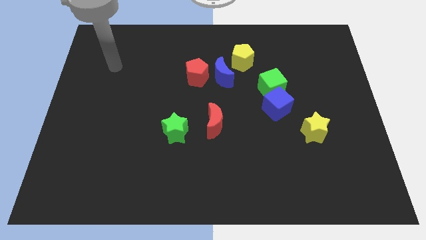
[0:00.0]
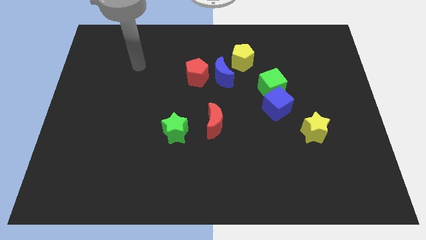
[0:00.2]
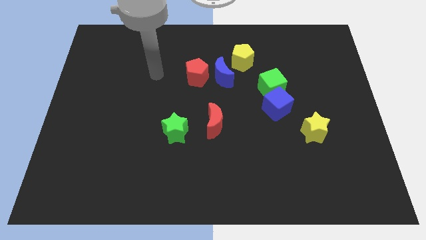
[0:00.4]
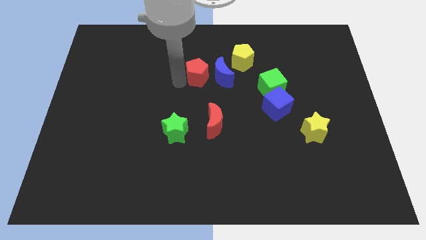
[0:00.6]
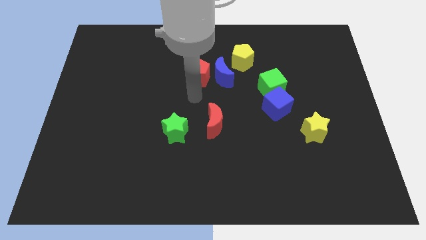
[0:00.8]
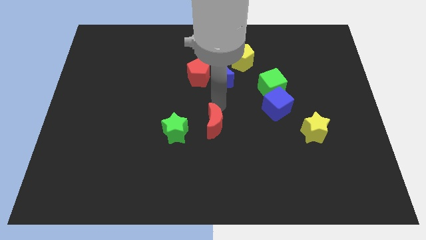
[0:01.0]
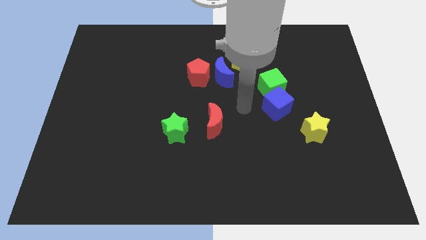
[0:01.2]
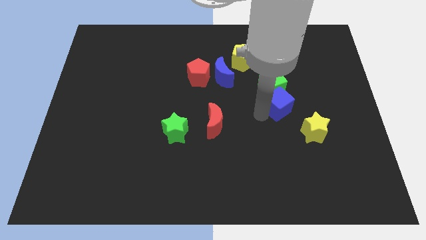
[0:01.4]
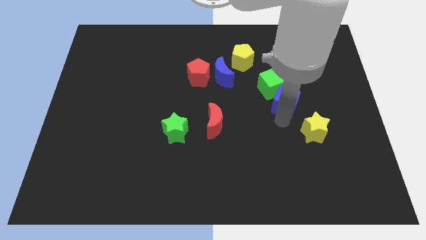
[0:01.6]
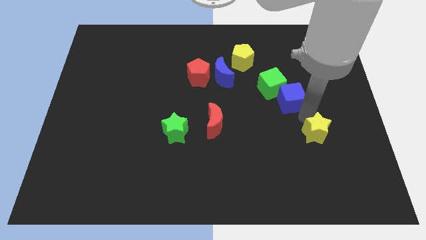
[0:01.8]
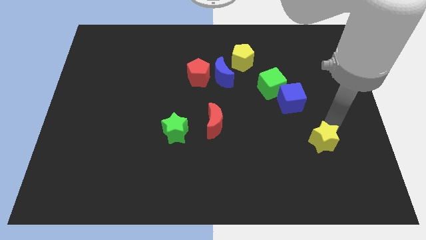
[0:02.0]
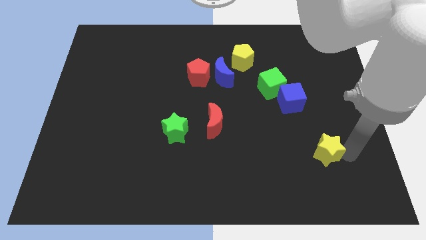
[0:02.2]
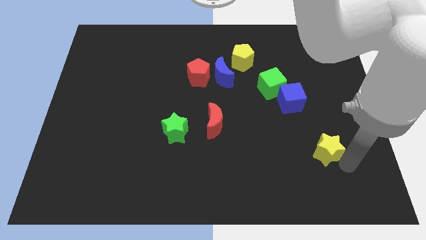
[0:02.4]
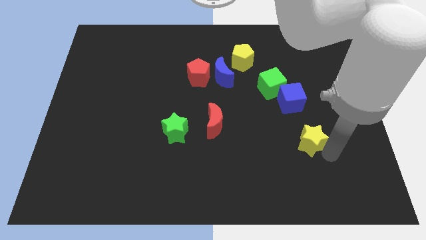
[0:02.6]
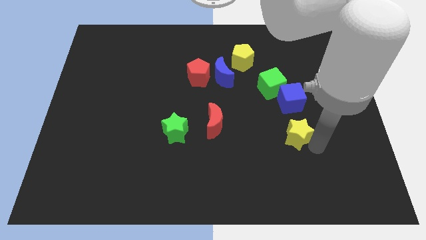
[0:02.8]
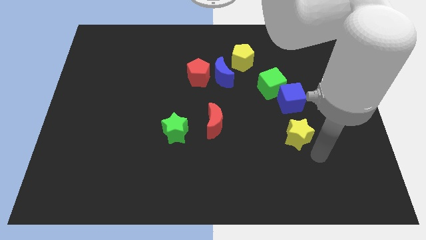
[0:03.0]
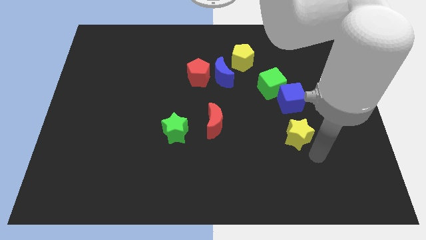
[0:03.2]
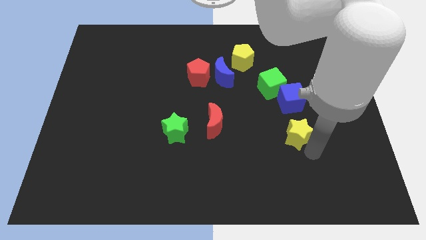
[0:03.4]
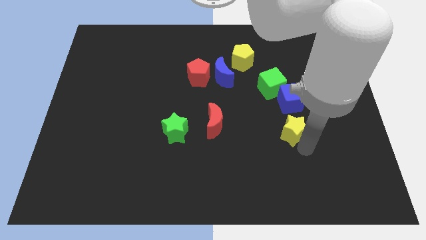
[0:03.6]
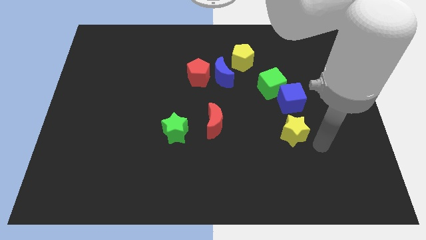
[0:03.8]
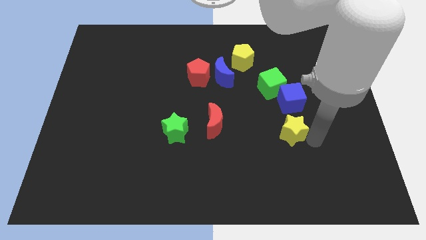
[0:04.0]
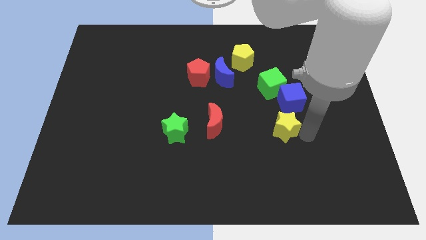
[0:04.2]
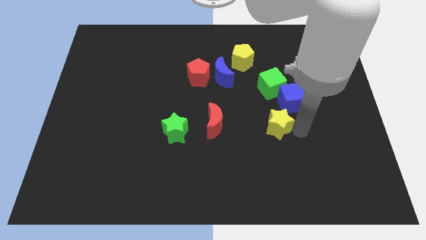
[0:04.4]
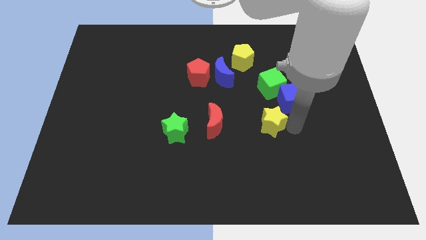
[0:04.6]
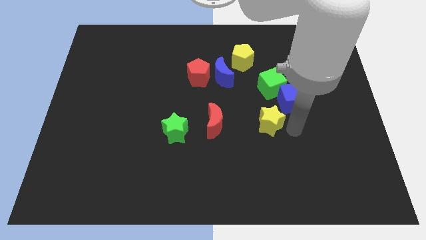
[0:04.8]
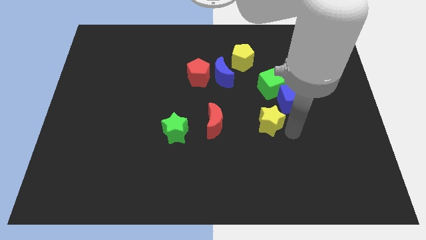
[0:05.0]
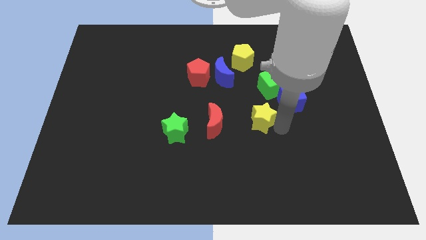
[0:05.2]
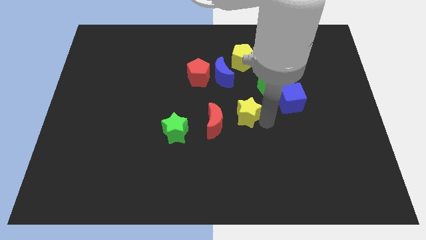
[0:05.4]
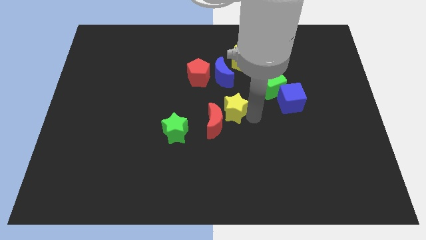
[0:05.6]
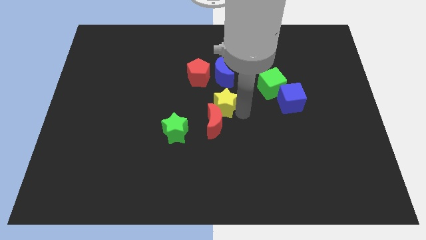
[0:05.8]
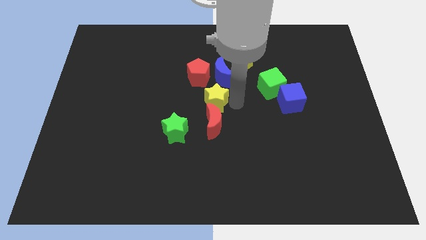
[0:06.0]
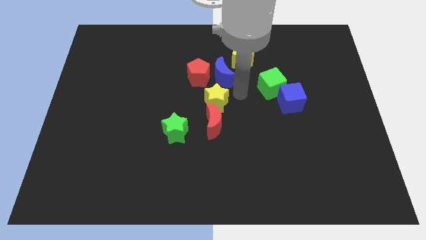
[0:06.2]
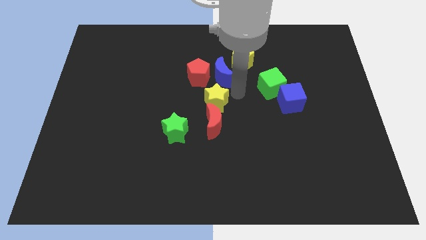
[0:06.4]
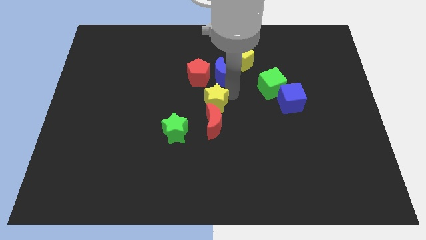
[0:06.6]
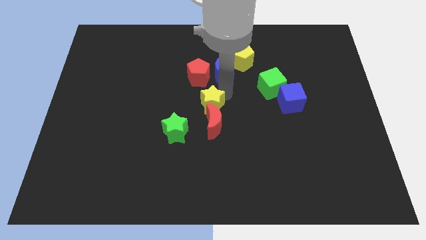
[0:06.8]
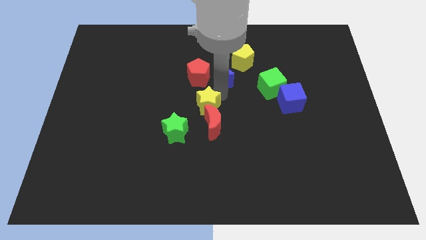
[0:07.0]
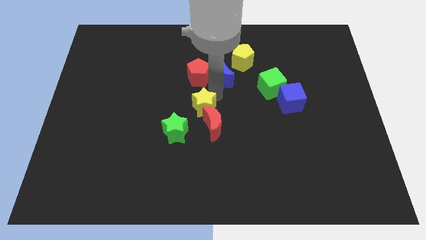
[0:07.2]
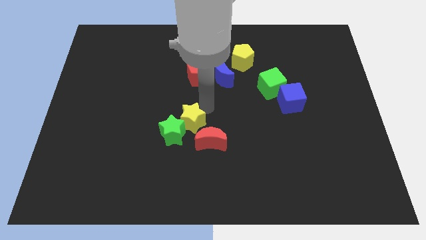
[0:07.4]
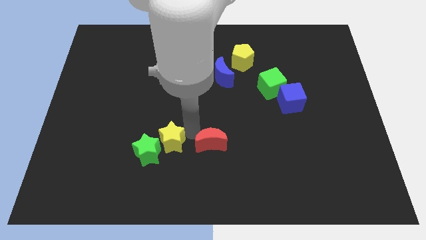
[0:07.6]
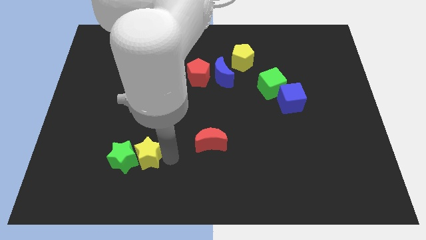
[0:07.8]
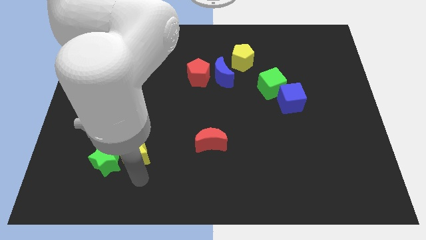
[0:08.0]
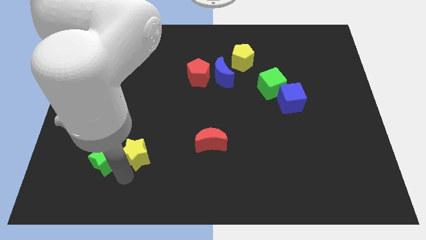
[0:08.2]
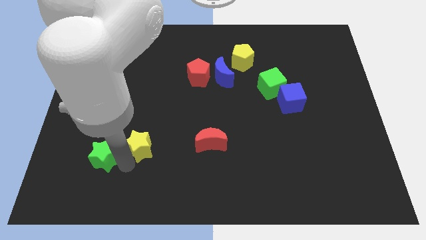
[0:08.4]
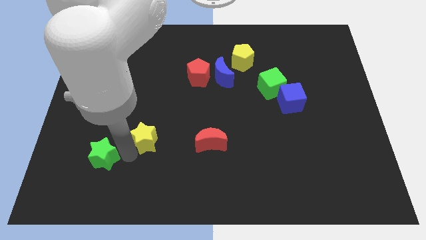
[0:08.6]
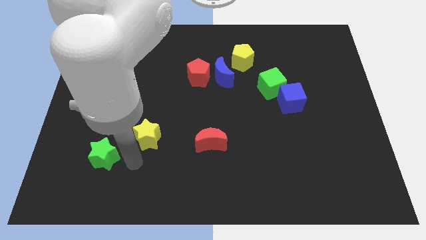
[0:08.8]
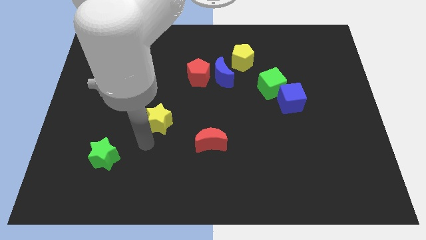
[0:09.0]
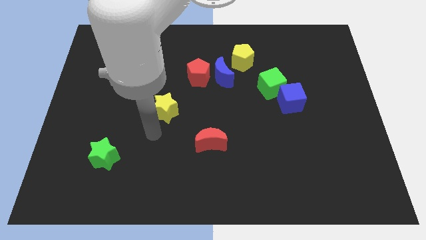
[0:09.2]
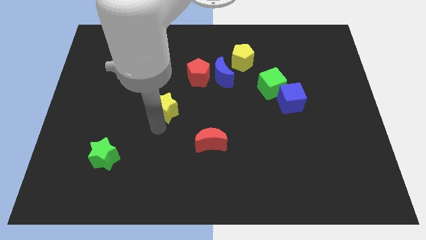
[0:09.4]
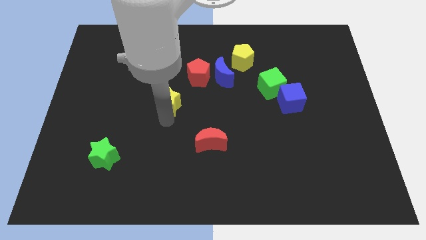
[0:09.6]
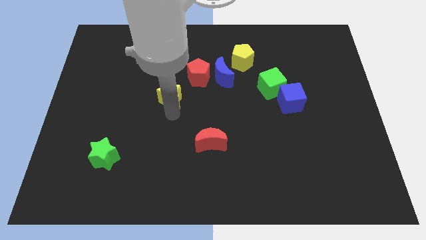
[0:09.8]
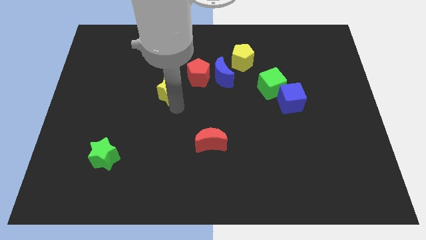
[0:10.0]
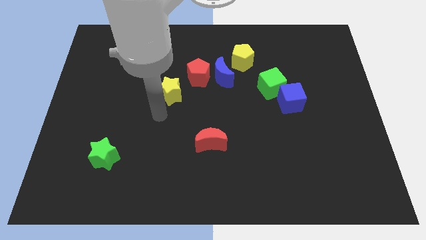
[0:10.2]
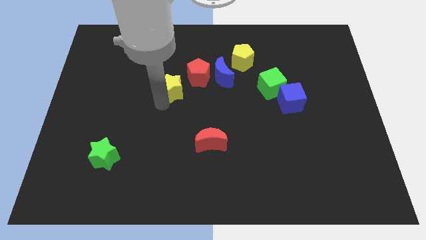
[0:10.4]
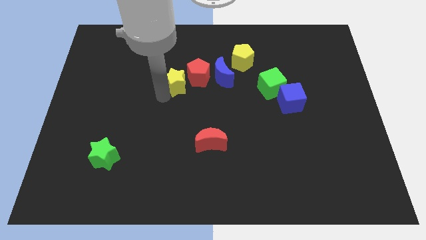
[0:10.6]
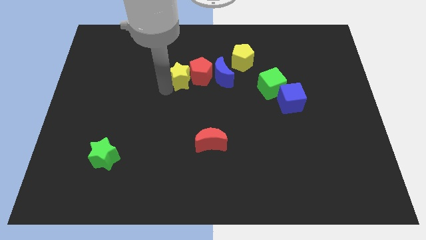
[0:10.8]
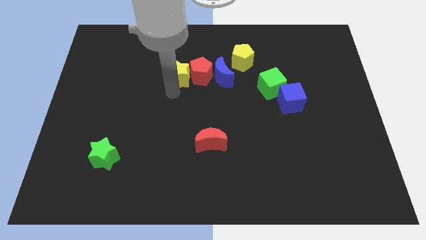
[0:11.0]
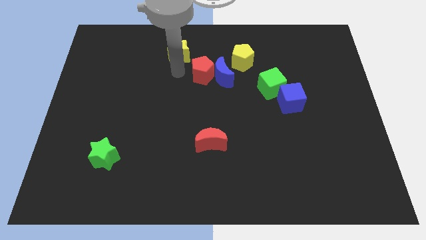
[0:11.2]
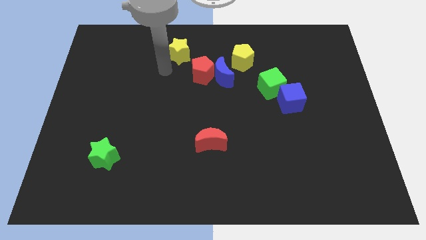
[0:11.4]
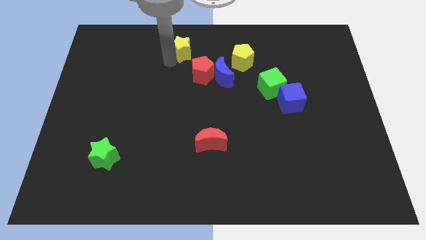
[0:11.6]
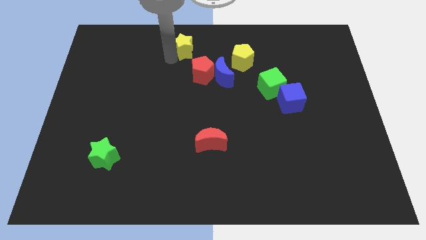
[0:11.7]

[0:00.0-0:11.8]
slide the yellow star to the towards your base

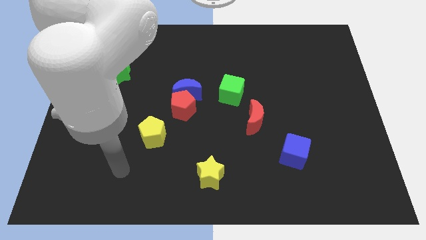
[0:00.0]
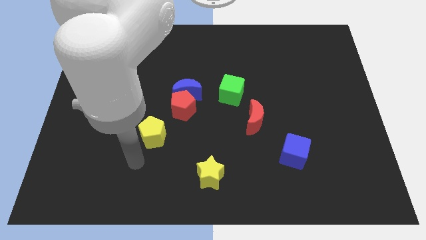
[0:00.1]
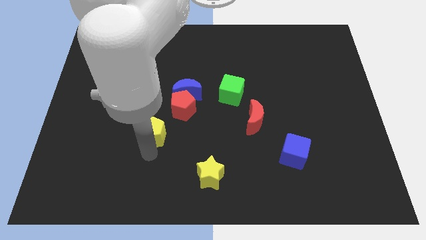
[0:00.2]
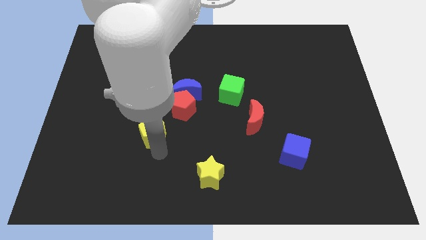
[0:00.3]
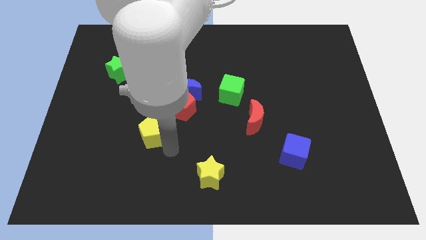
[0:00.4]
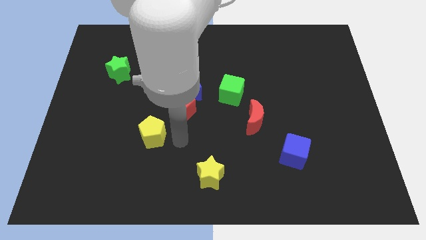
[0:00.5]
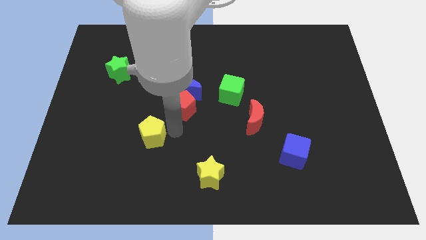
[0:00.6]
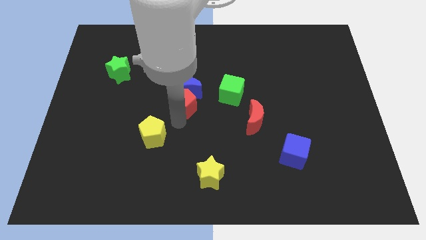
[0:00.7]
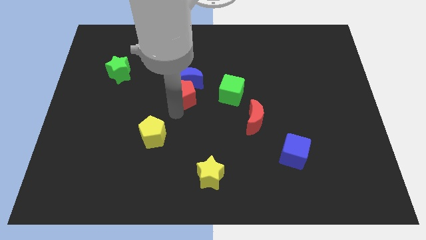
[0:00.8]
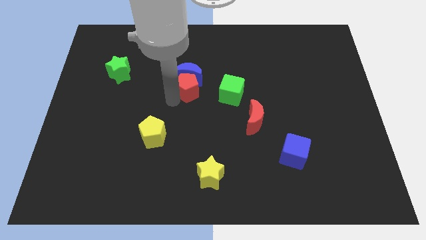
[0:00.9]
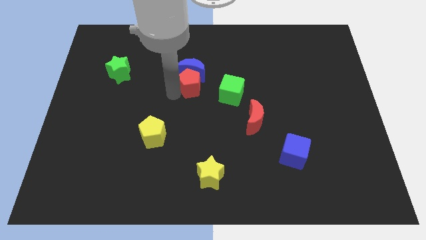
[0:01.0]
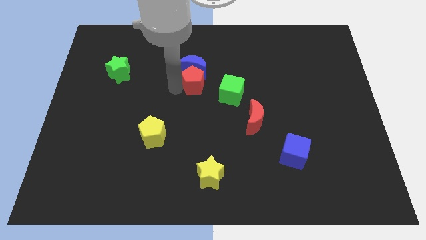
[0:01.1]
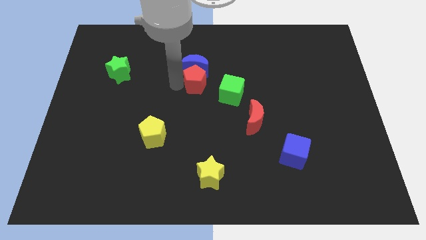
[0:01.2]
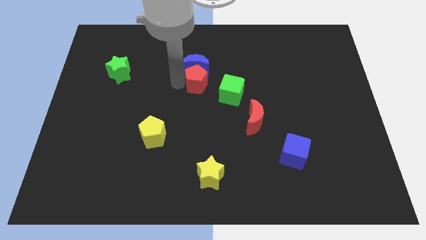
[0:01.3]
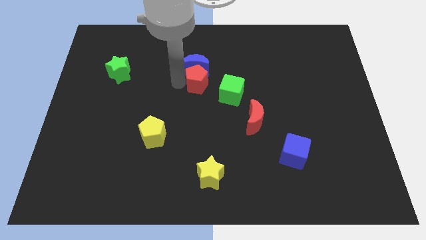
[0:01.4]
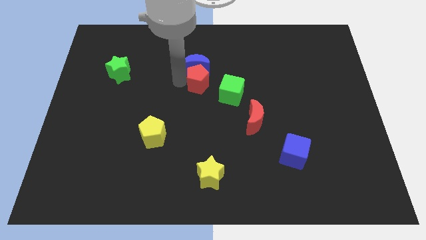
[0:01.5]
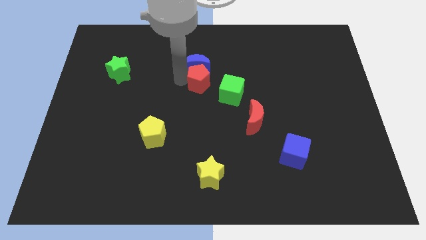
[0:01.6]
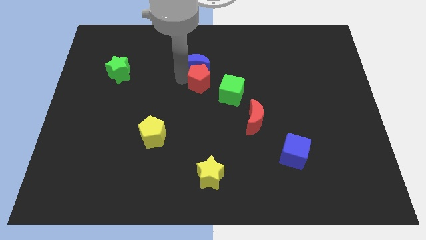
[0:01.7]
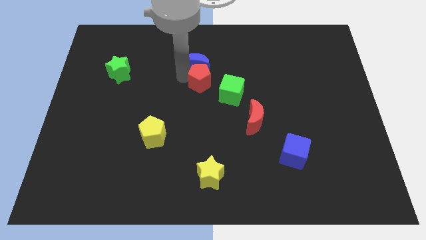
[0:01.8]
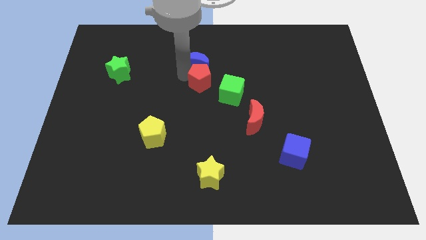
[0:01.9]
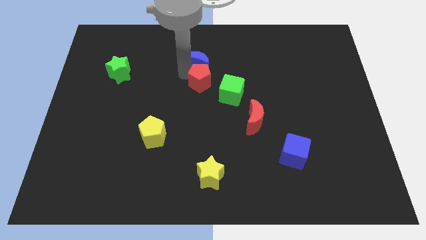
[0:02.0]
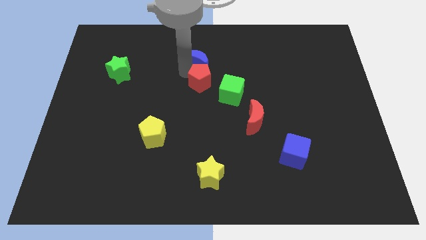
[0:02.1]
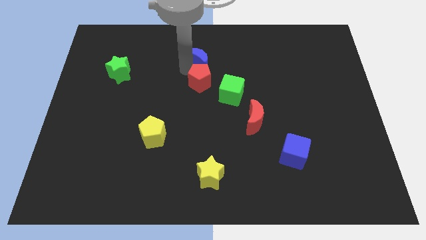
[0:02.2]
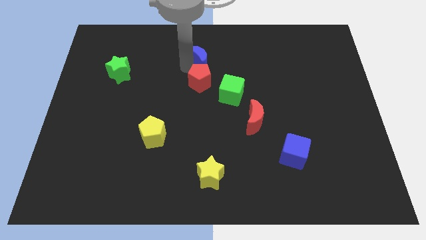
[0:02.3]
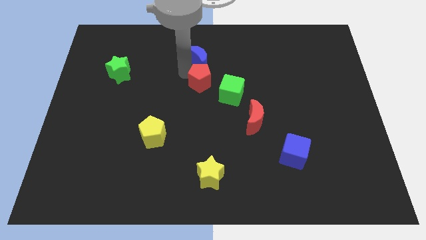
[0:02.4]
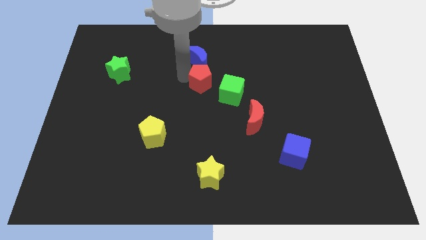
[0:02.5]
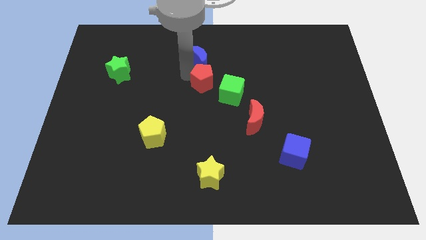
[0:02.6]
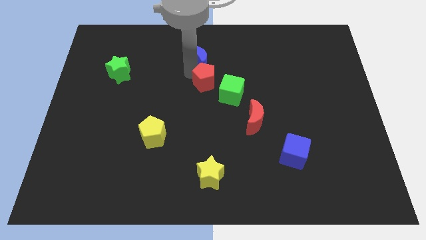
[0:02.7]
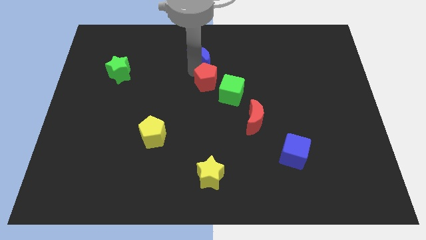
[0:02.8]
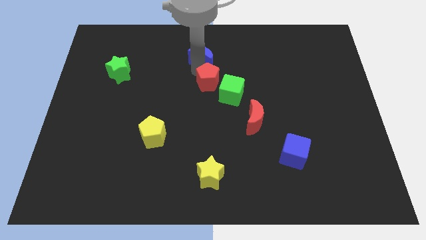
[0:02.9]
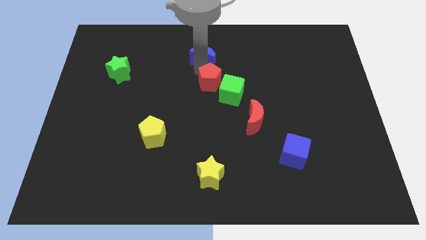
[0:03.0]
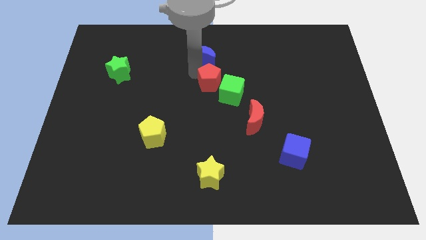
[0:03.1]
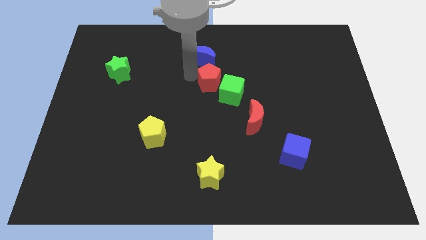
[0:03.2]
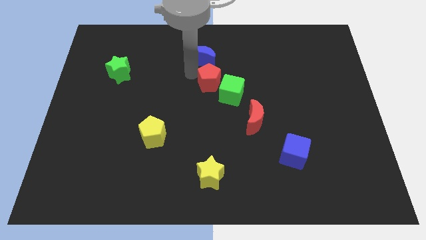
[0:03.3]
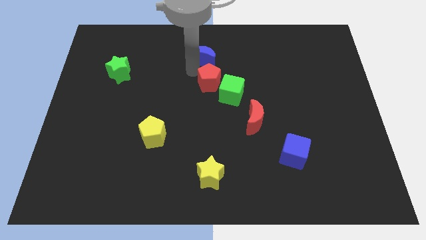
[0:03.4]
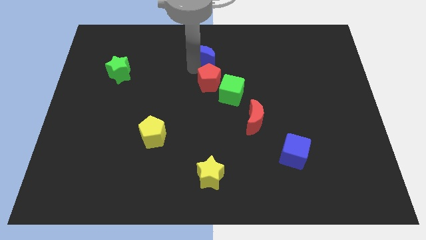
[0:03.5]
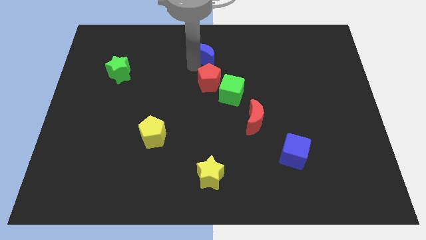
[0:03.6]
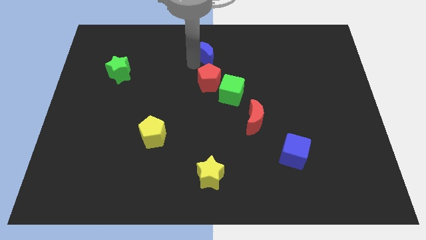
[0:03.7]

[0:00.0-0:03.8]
push the blue moon to the top side
